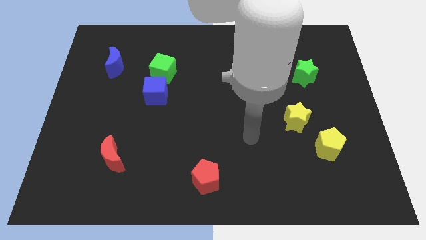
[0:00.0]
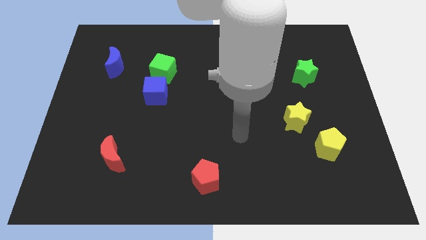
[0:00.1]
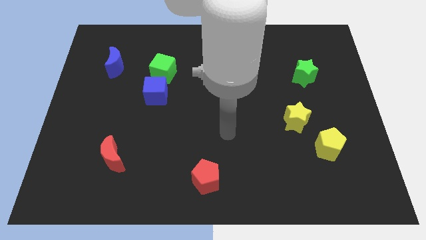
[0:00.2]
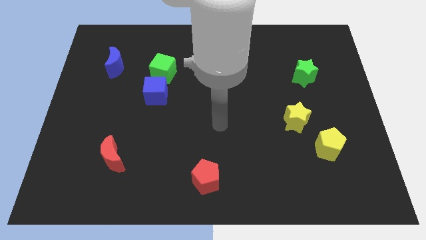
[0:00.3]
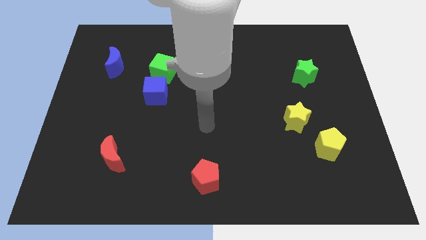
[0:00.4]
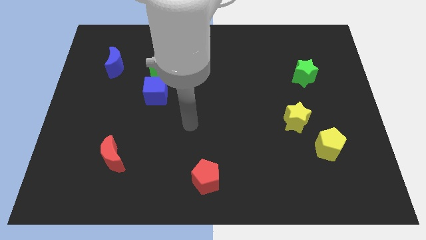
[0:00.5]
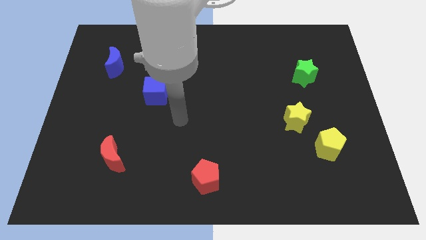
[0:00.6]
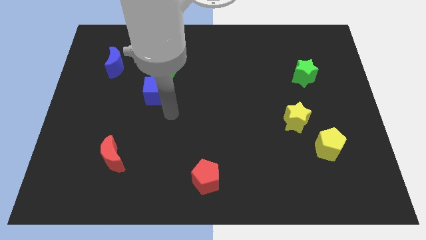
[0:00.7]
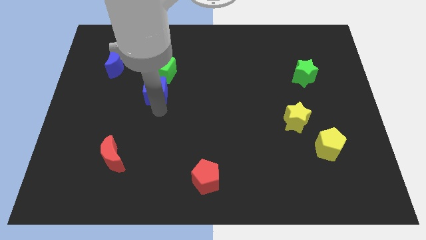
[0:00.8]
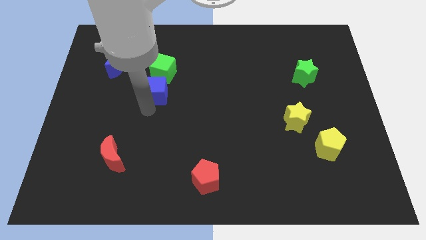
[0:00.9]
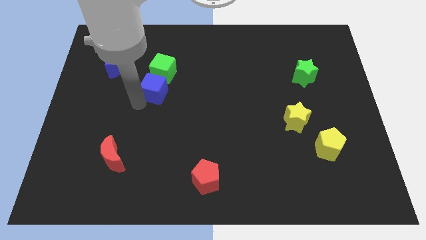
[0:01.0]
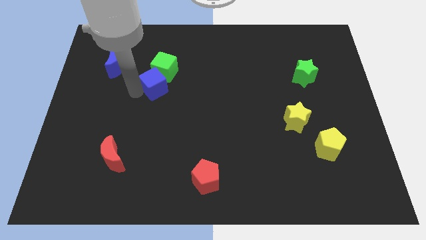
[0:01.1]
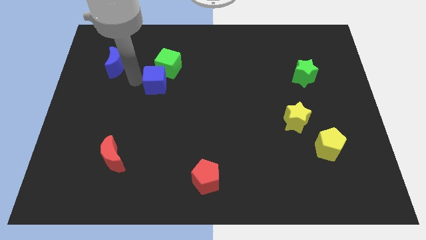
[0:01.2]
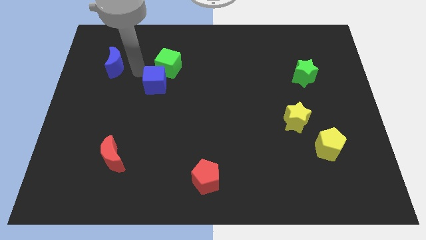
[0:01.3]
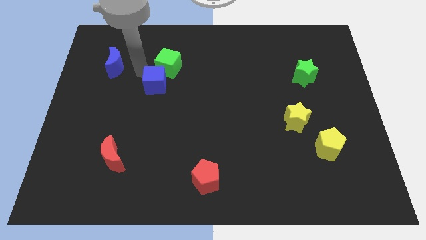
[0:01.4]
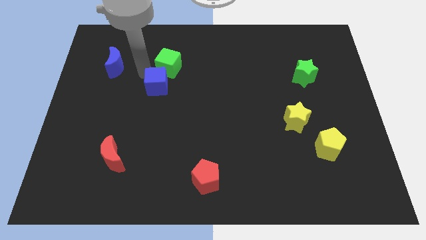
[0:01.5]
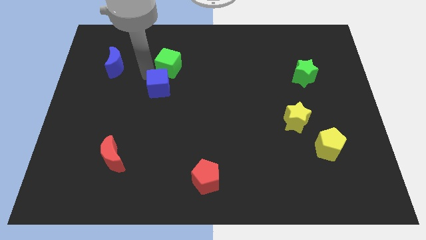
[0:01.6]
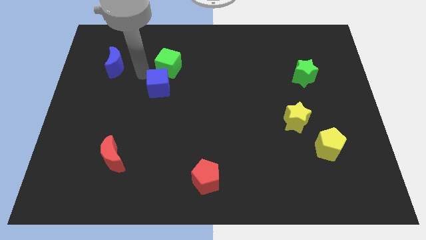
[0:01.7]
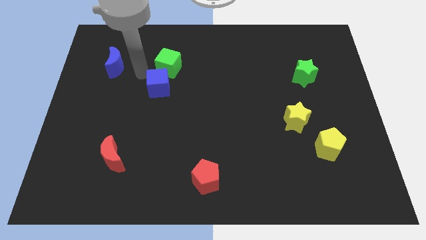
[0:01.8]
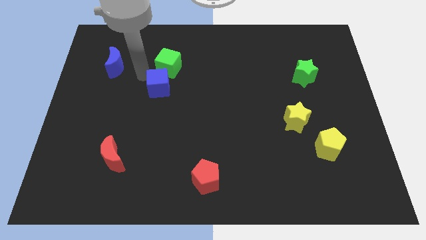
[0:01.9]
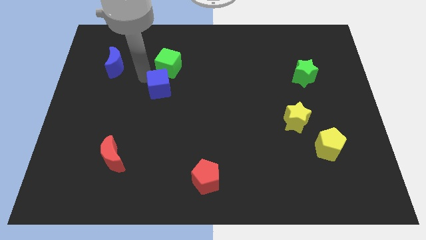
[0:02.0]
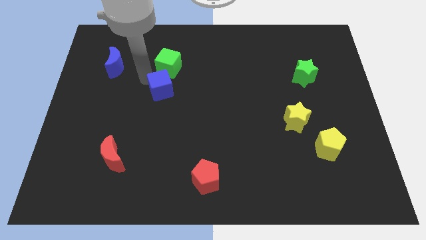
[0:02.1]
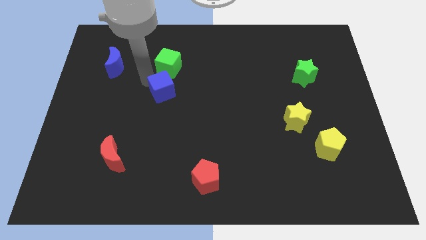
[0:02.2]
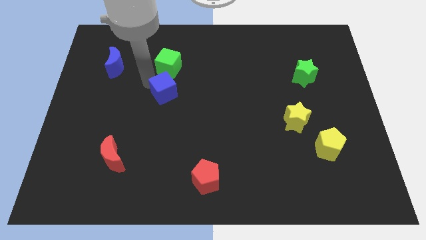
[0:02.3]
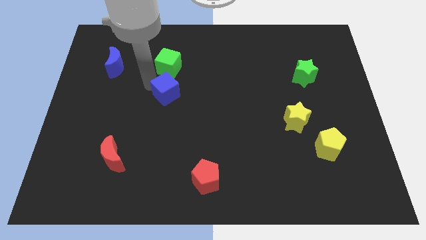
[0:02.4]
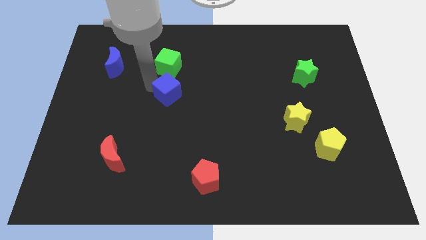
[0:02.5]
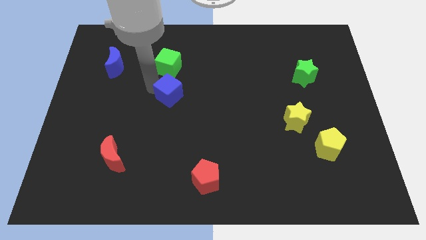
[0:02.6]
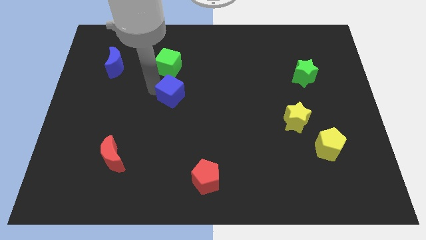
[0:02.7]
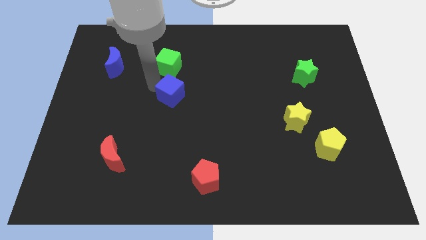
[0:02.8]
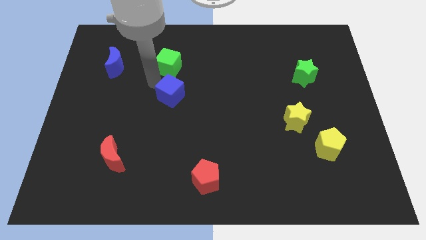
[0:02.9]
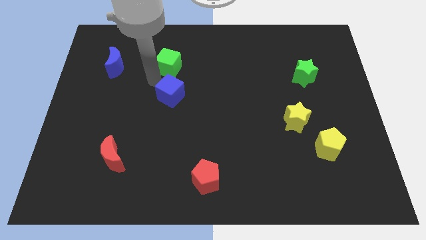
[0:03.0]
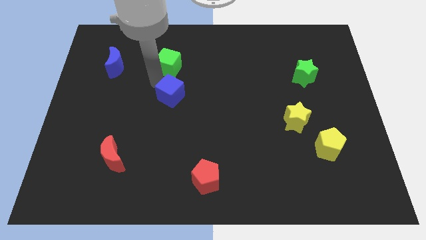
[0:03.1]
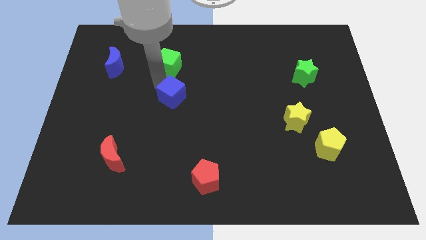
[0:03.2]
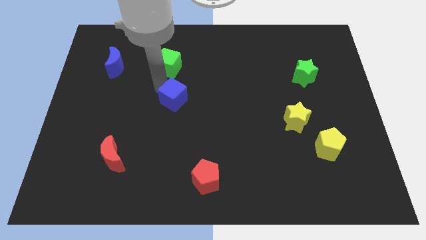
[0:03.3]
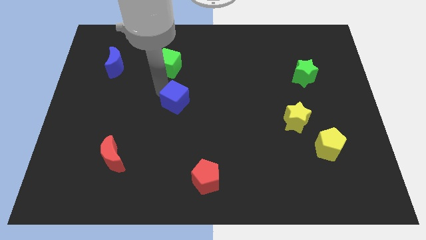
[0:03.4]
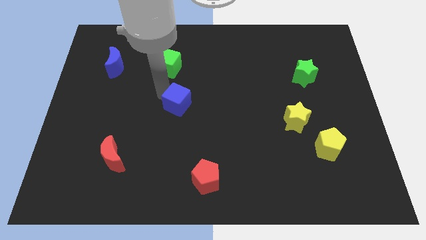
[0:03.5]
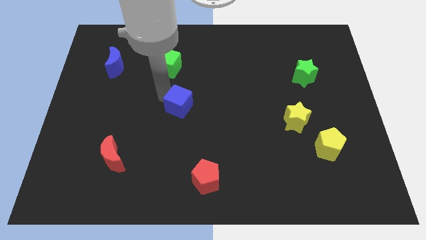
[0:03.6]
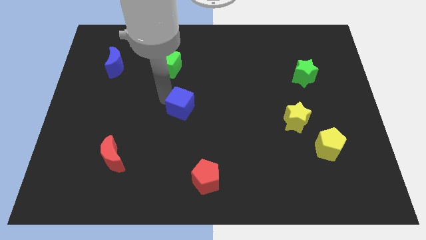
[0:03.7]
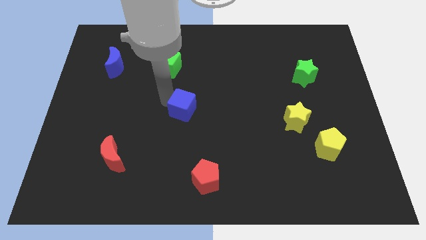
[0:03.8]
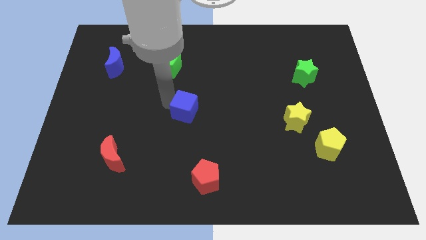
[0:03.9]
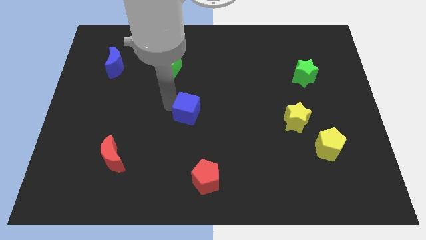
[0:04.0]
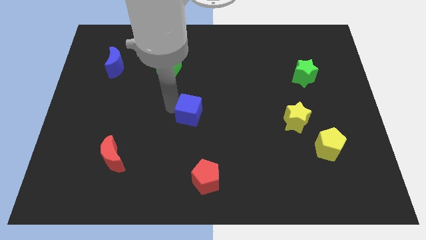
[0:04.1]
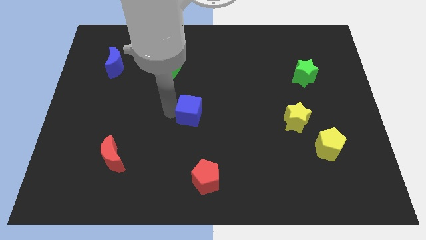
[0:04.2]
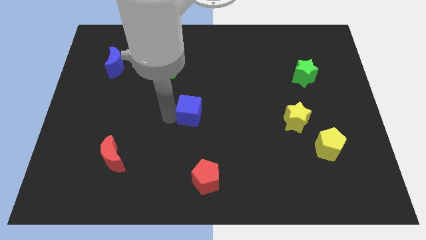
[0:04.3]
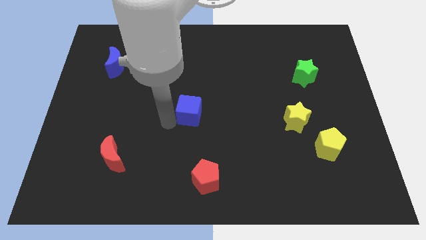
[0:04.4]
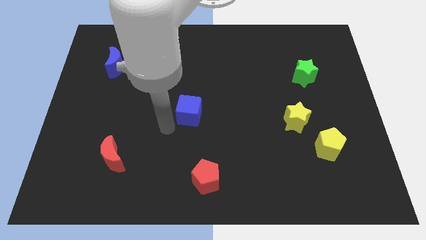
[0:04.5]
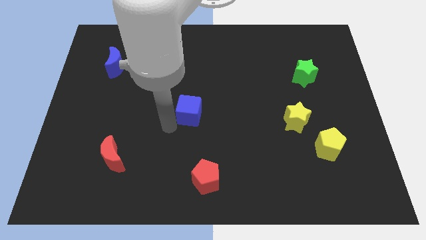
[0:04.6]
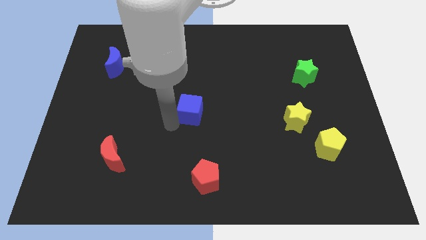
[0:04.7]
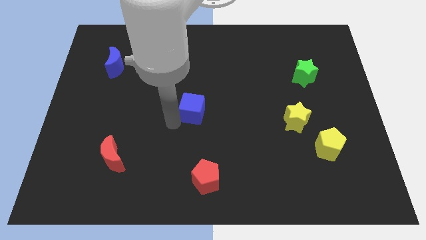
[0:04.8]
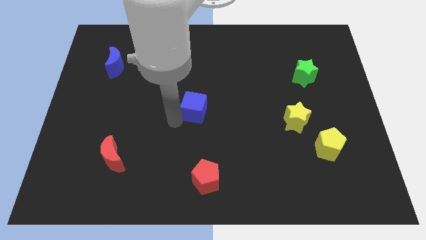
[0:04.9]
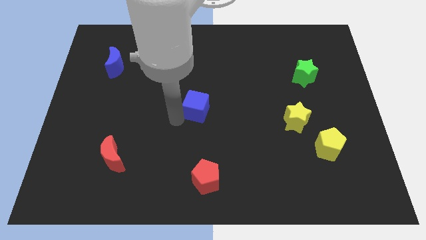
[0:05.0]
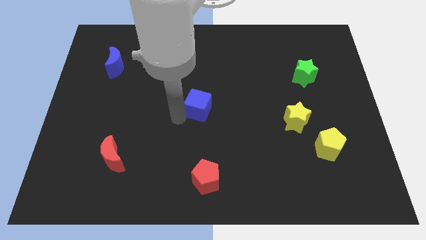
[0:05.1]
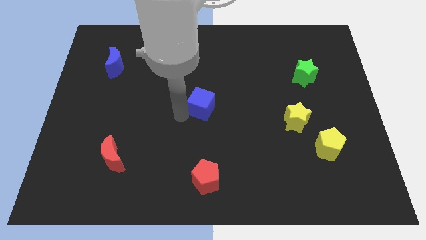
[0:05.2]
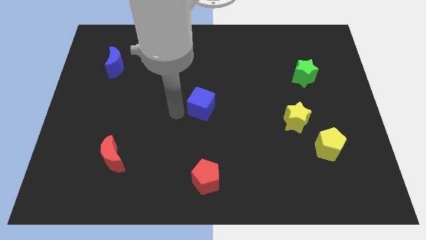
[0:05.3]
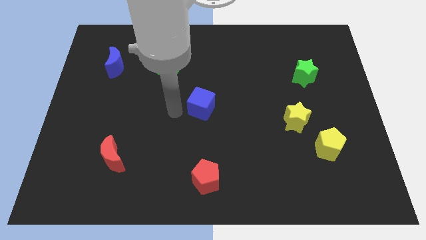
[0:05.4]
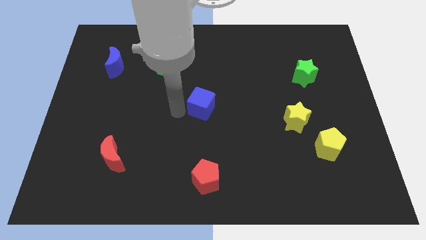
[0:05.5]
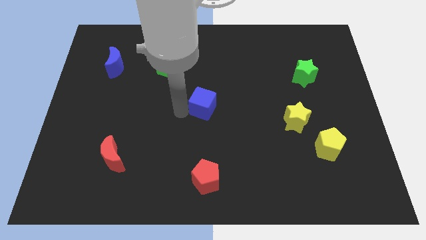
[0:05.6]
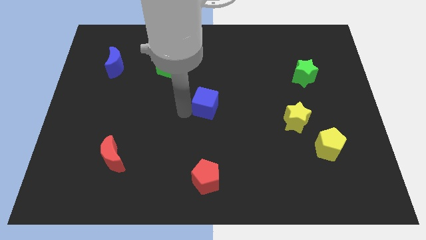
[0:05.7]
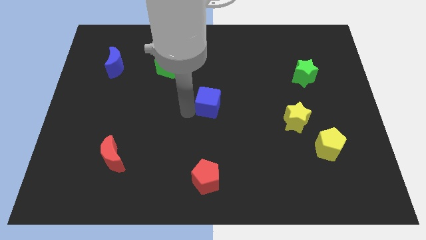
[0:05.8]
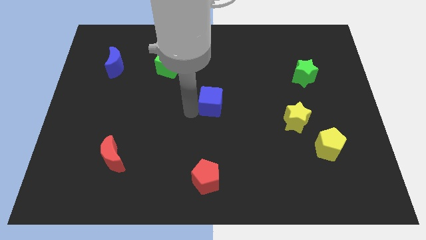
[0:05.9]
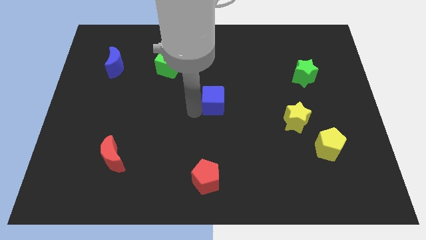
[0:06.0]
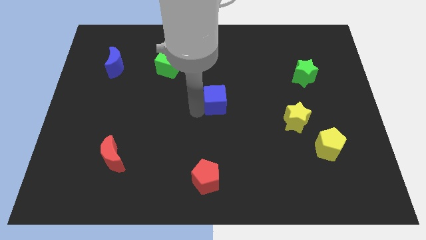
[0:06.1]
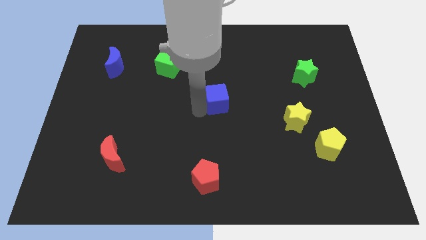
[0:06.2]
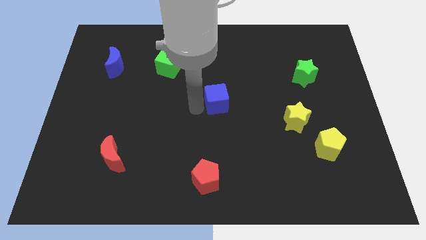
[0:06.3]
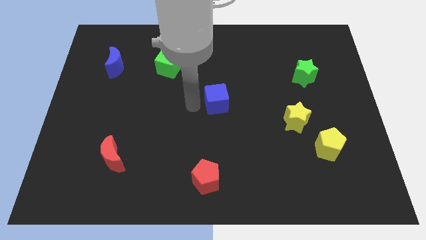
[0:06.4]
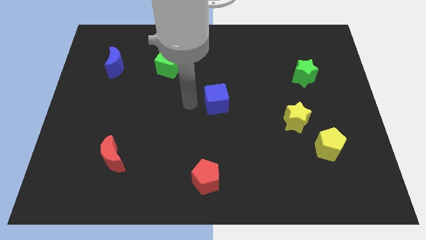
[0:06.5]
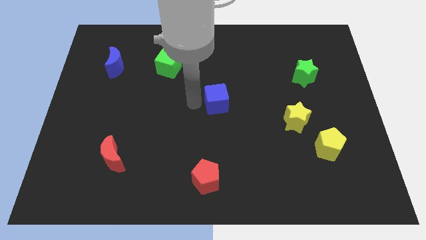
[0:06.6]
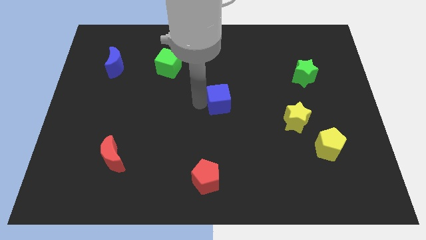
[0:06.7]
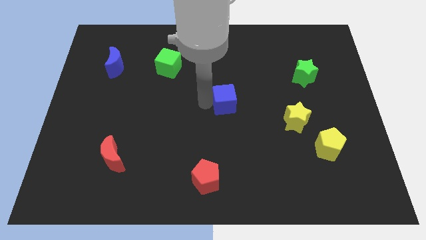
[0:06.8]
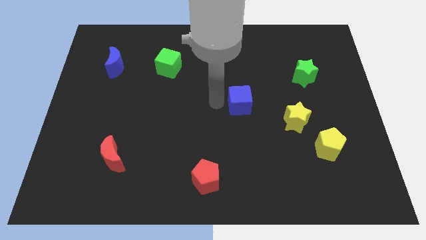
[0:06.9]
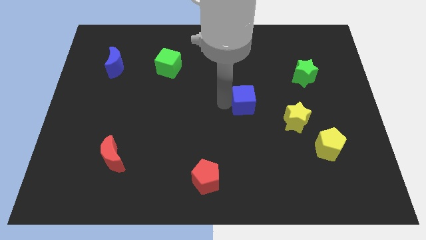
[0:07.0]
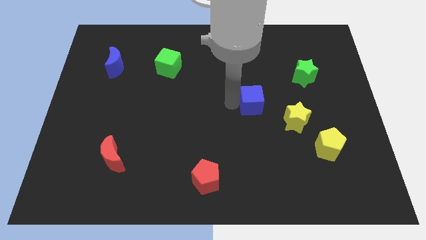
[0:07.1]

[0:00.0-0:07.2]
slide the blue cube to the top left of the yellow star

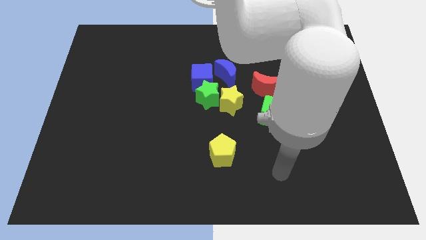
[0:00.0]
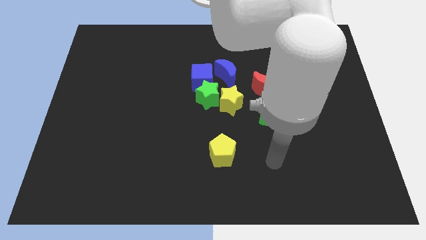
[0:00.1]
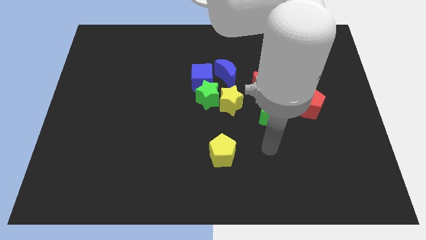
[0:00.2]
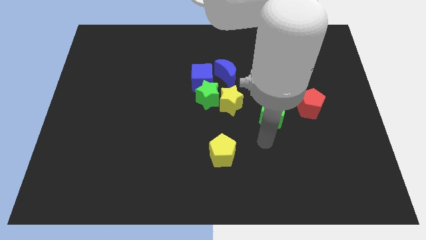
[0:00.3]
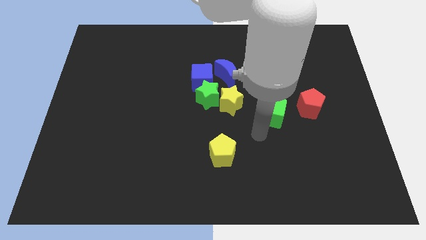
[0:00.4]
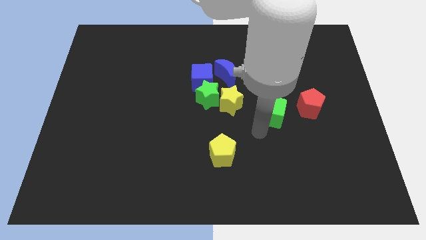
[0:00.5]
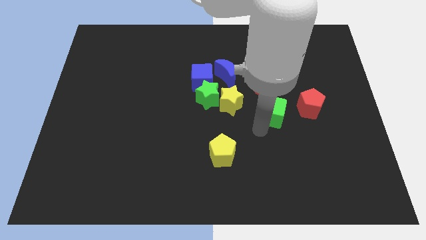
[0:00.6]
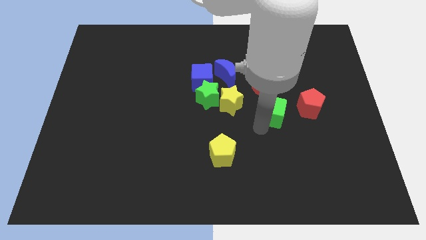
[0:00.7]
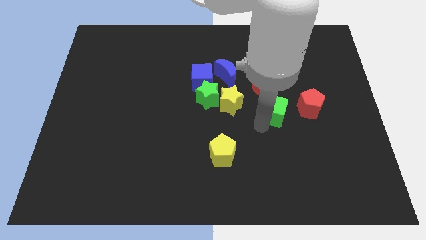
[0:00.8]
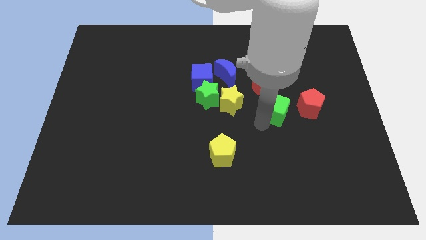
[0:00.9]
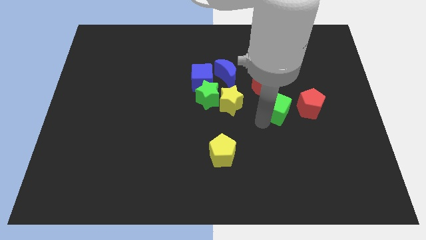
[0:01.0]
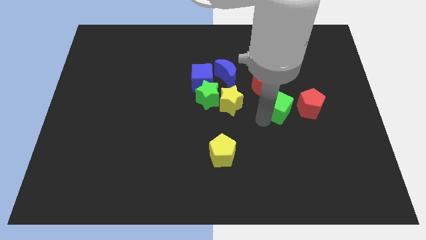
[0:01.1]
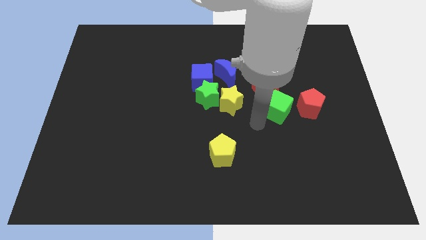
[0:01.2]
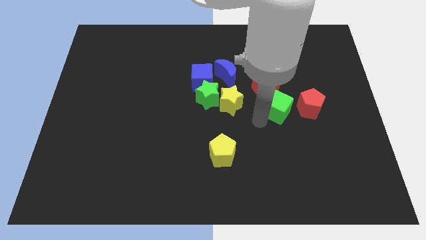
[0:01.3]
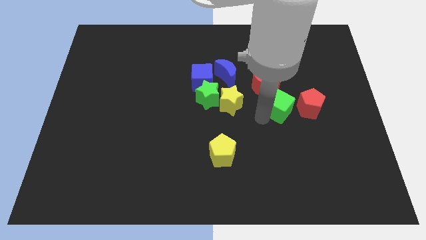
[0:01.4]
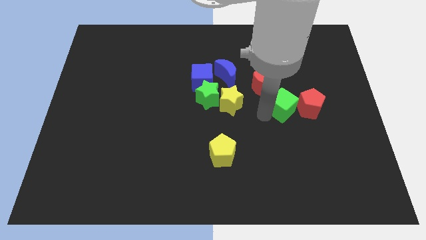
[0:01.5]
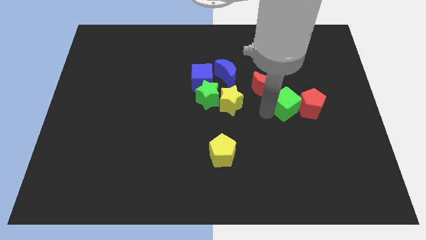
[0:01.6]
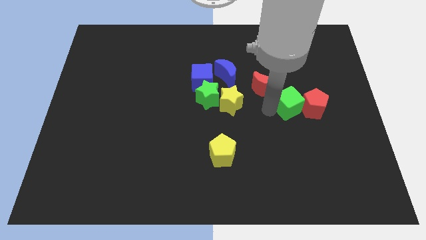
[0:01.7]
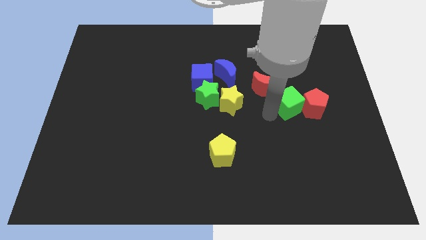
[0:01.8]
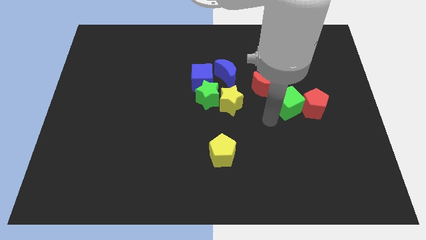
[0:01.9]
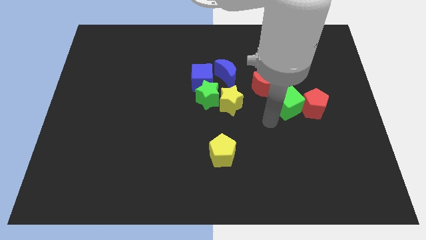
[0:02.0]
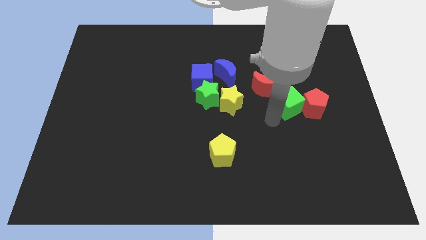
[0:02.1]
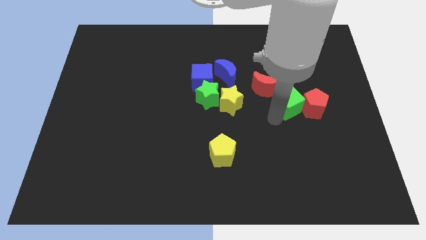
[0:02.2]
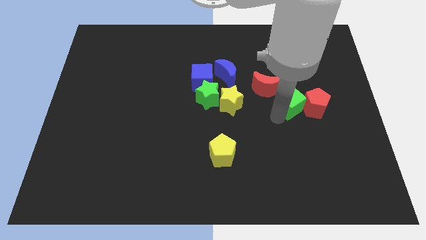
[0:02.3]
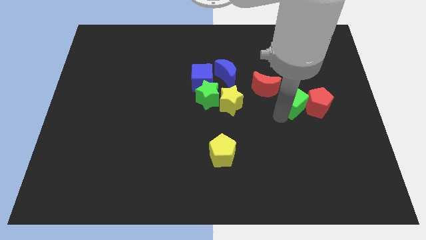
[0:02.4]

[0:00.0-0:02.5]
push the green cube right of the red moon
